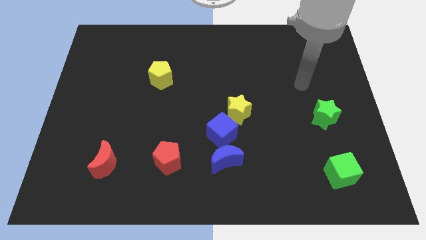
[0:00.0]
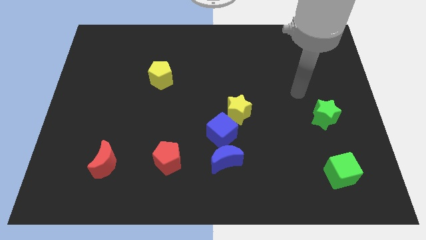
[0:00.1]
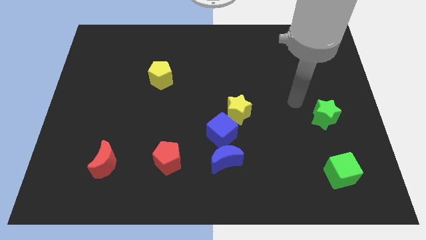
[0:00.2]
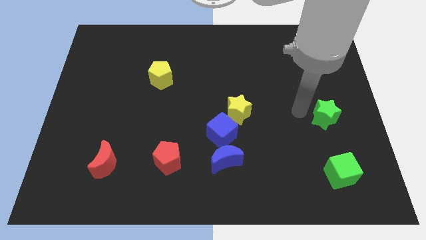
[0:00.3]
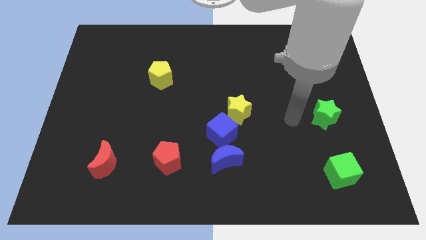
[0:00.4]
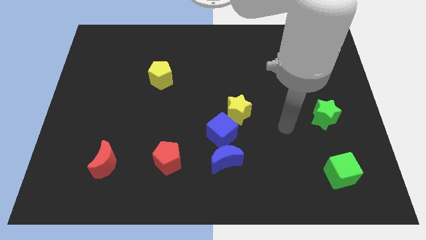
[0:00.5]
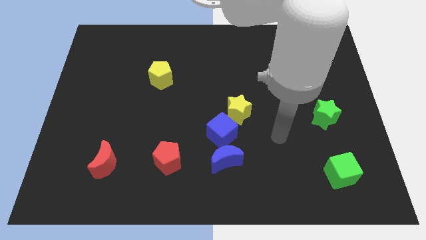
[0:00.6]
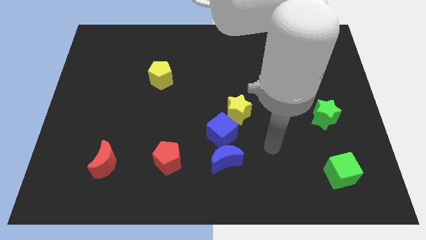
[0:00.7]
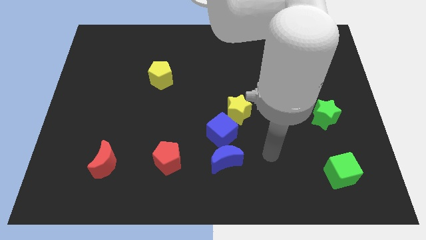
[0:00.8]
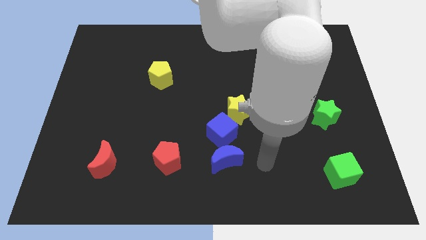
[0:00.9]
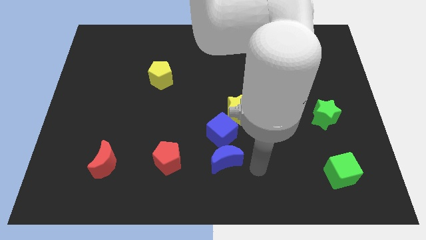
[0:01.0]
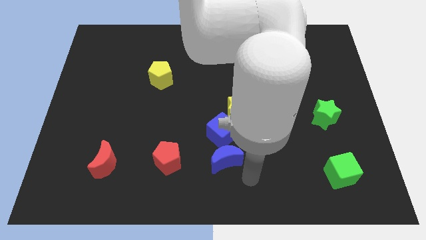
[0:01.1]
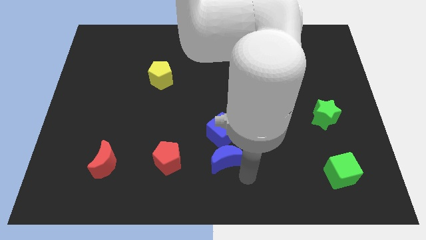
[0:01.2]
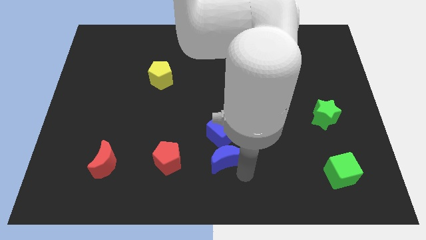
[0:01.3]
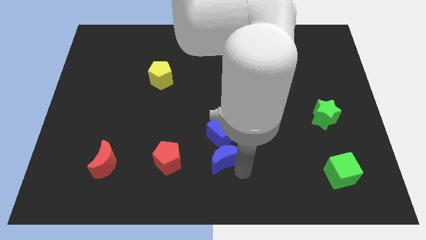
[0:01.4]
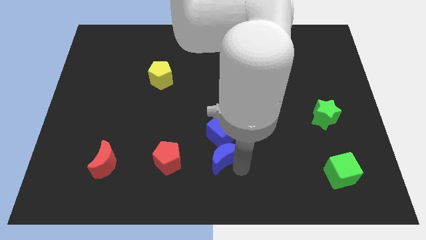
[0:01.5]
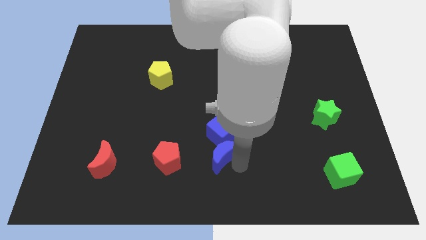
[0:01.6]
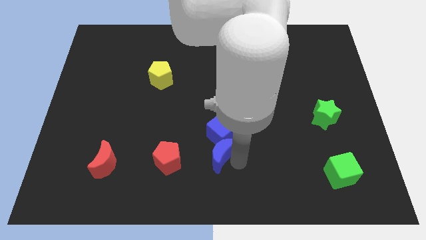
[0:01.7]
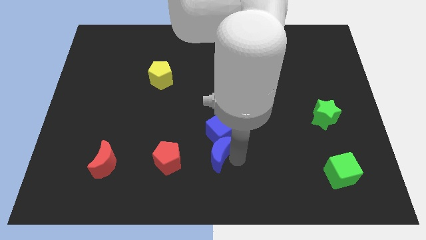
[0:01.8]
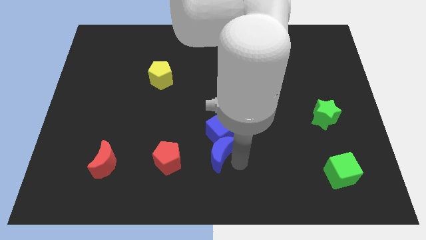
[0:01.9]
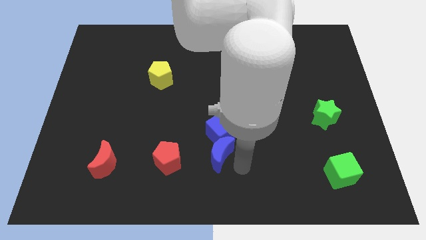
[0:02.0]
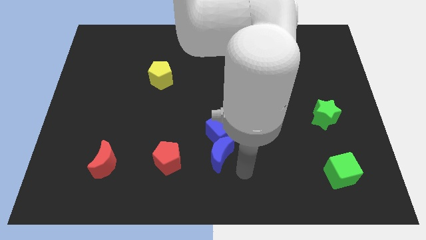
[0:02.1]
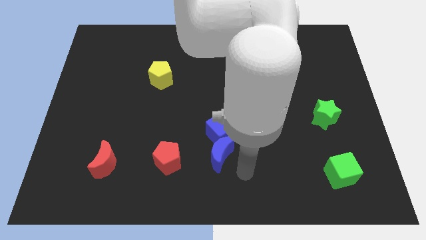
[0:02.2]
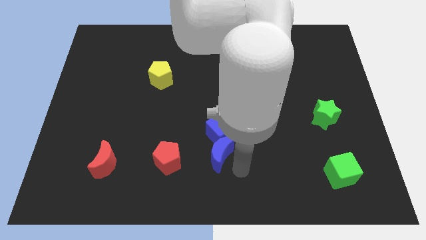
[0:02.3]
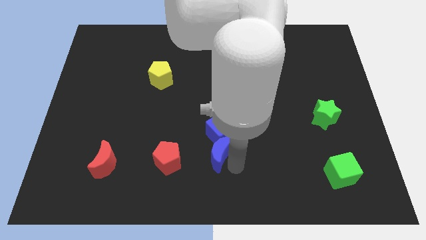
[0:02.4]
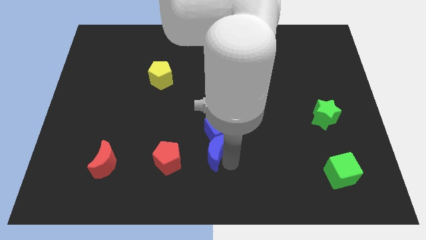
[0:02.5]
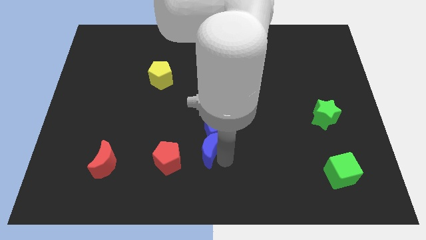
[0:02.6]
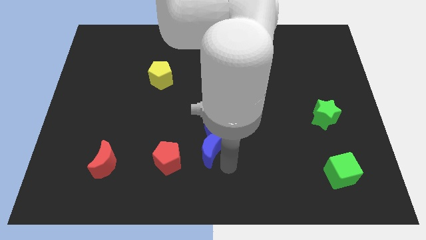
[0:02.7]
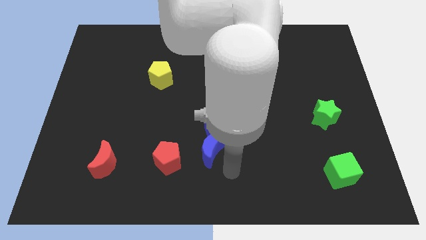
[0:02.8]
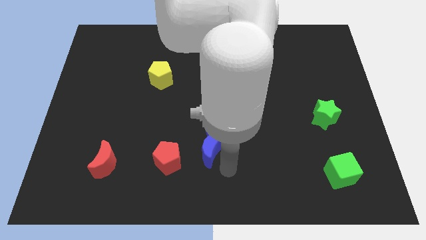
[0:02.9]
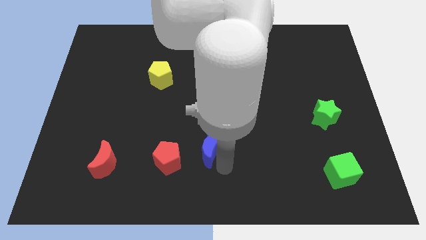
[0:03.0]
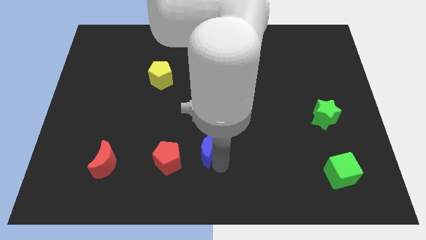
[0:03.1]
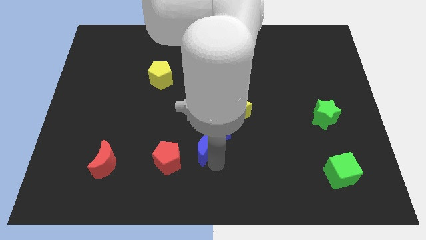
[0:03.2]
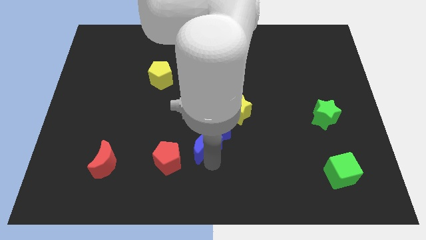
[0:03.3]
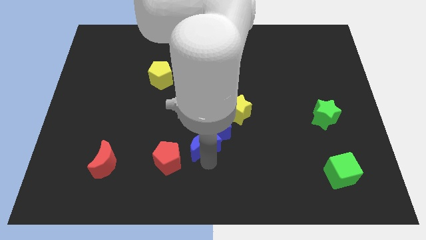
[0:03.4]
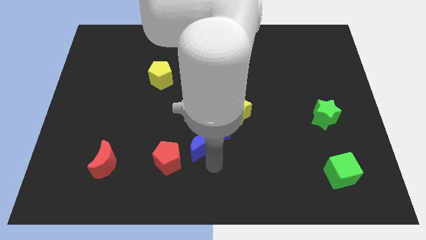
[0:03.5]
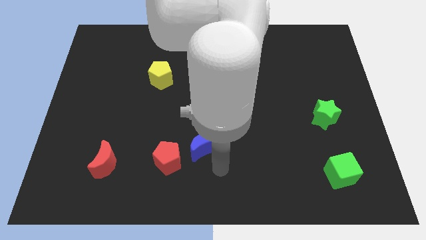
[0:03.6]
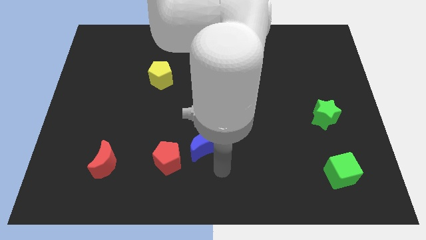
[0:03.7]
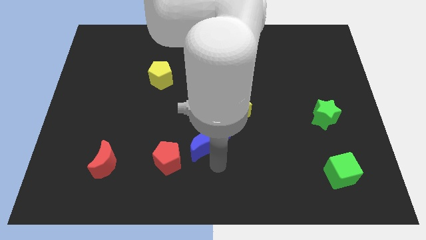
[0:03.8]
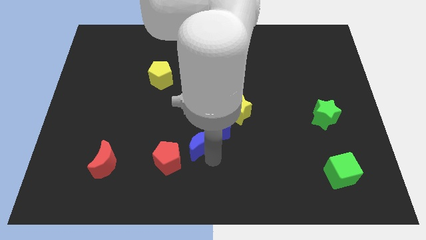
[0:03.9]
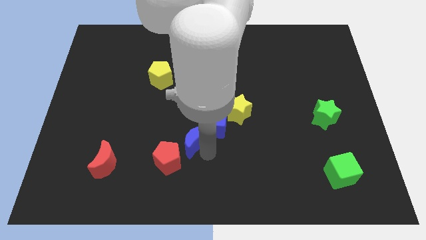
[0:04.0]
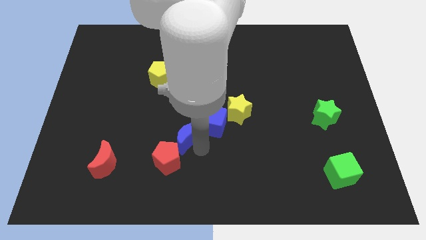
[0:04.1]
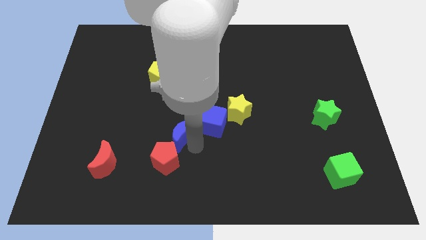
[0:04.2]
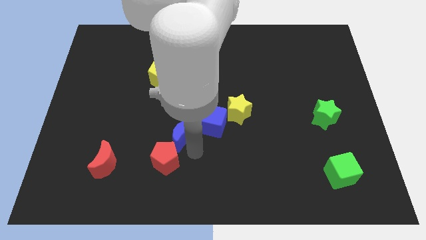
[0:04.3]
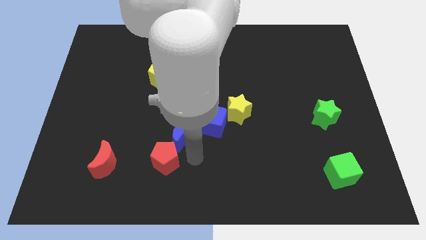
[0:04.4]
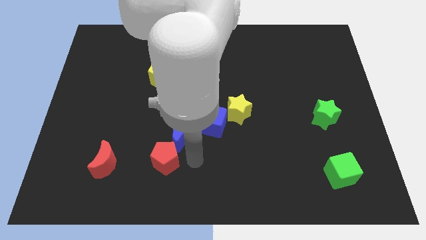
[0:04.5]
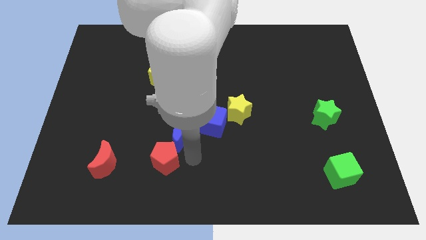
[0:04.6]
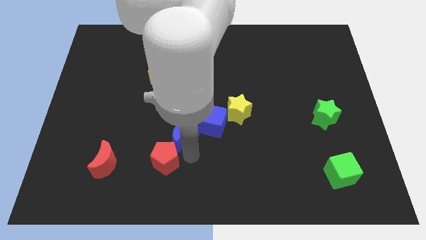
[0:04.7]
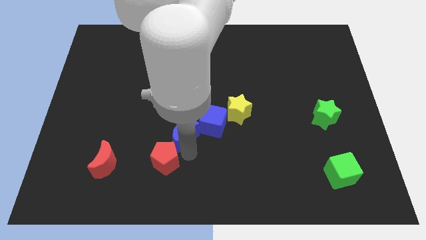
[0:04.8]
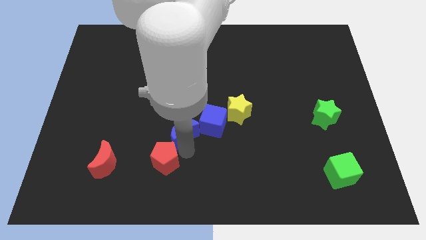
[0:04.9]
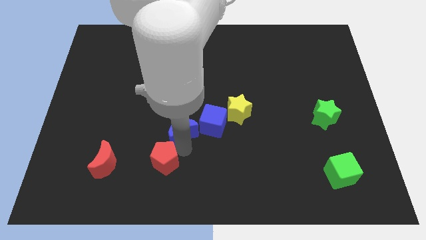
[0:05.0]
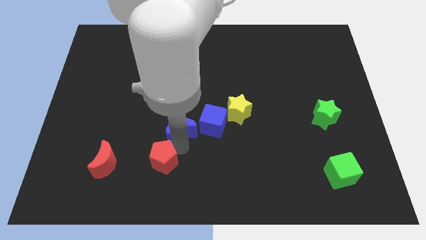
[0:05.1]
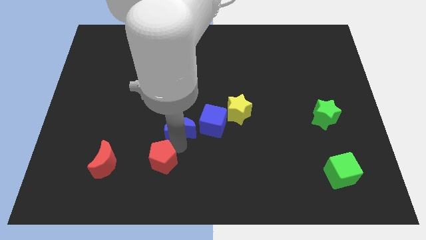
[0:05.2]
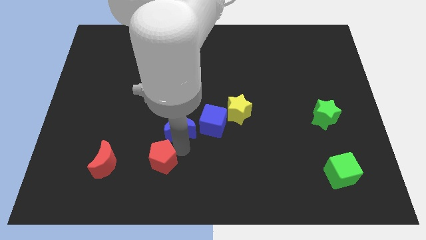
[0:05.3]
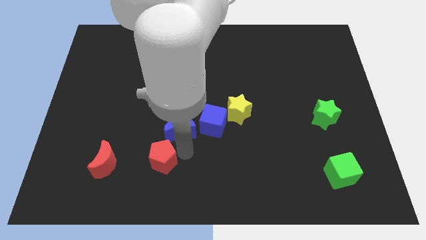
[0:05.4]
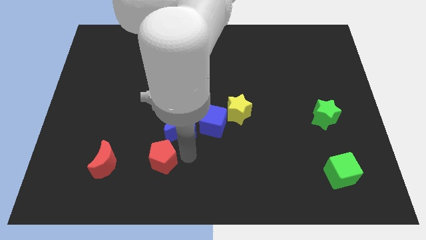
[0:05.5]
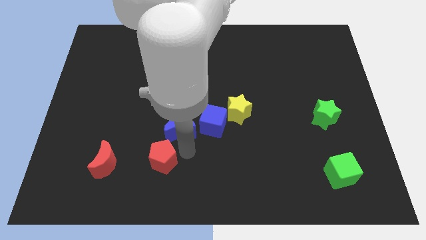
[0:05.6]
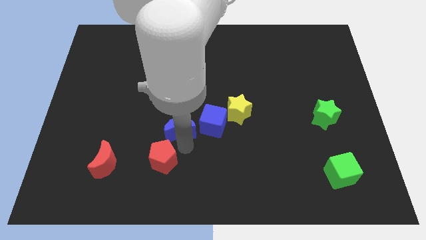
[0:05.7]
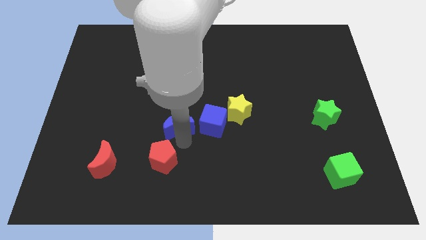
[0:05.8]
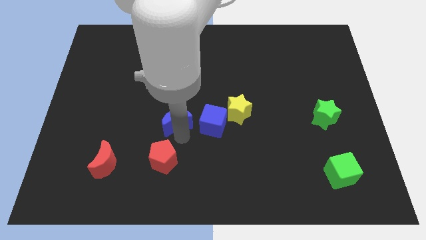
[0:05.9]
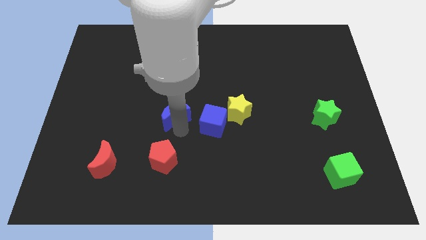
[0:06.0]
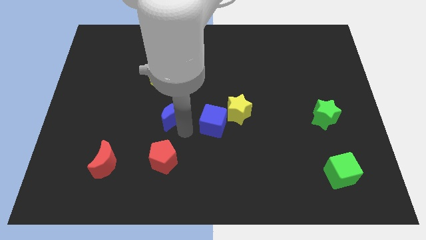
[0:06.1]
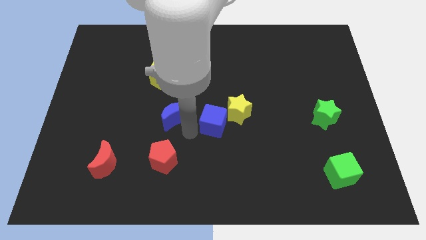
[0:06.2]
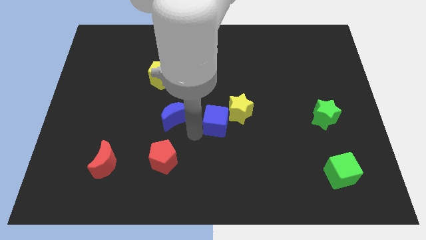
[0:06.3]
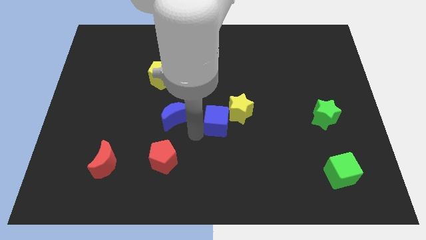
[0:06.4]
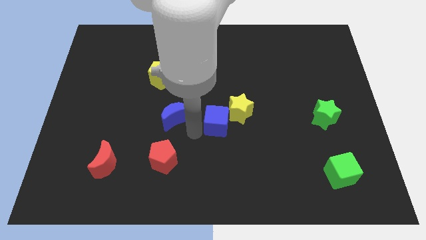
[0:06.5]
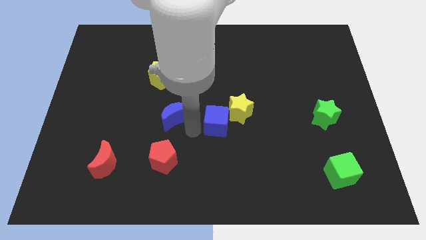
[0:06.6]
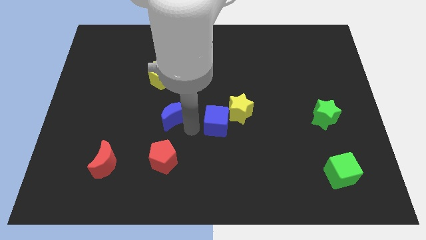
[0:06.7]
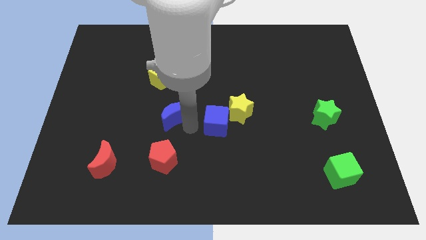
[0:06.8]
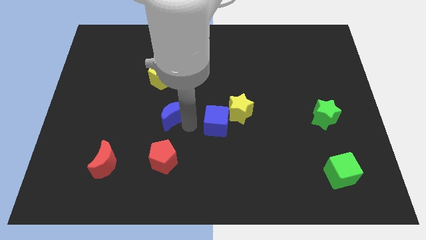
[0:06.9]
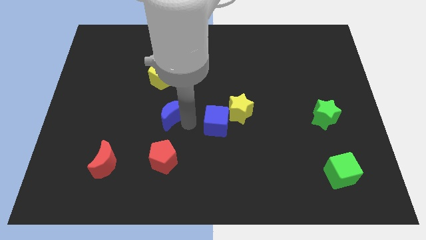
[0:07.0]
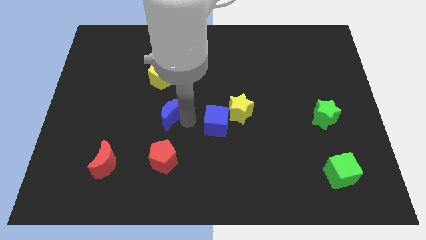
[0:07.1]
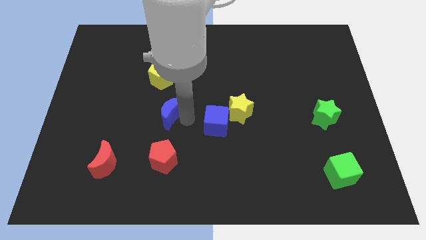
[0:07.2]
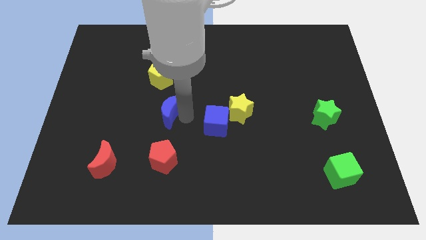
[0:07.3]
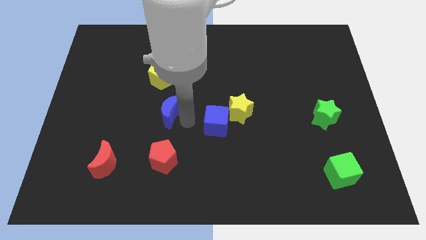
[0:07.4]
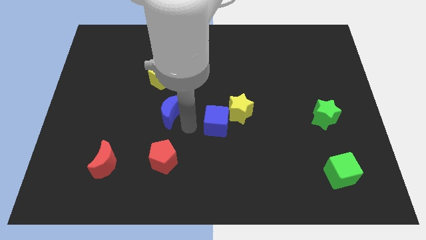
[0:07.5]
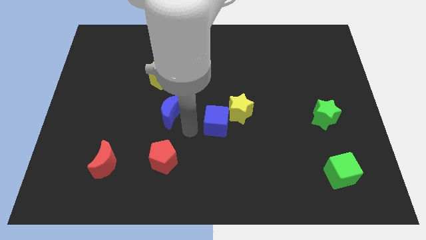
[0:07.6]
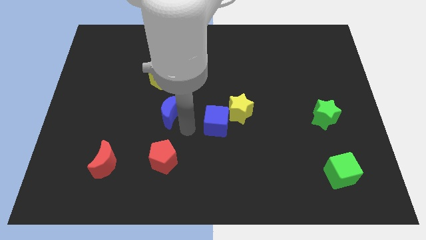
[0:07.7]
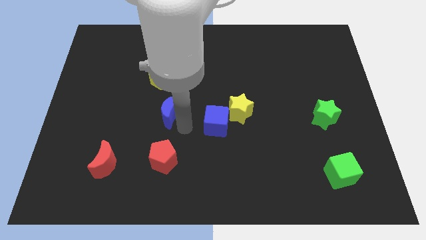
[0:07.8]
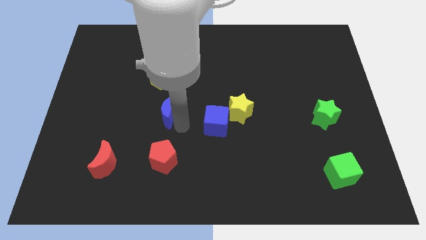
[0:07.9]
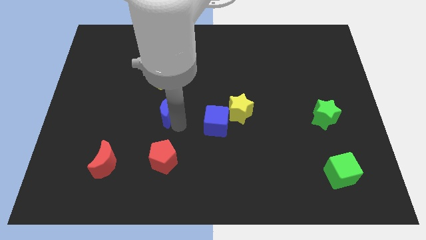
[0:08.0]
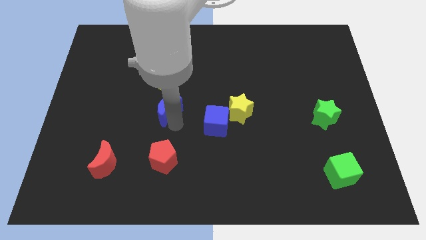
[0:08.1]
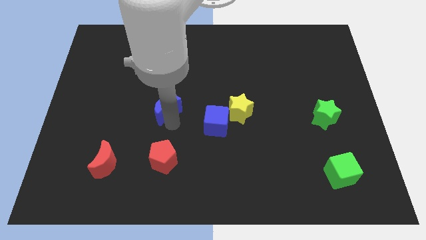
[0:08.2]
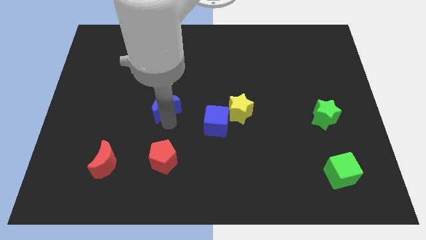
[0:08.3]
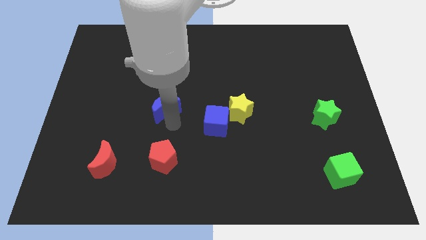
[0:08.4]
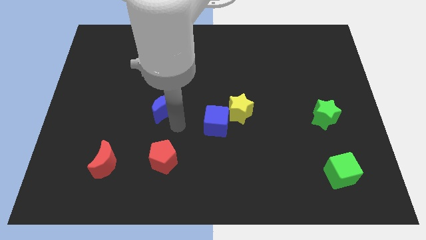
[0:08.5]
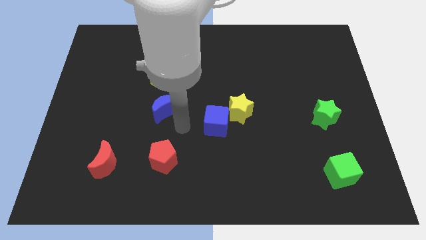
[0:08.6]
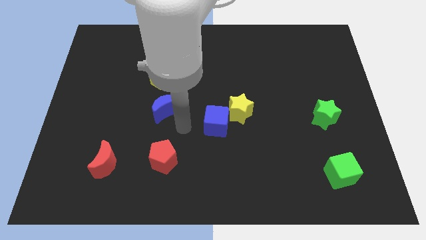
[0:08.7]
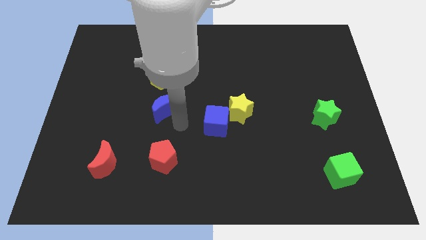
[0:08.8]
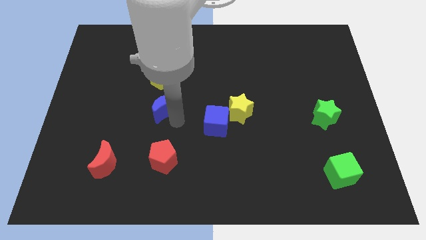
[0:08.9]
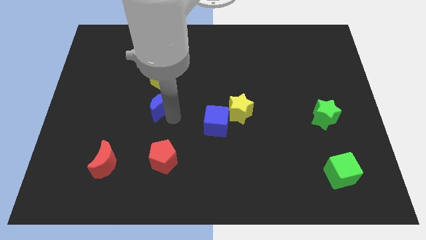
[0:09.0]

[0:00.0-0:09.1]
move the blue moon upwards and to the left diagonally
